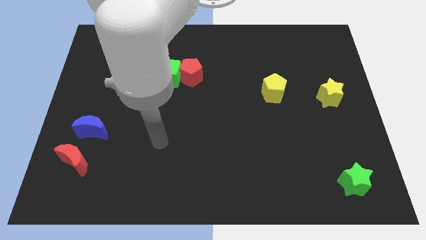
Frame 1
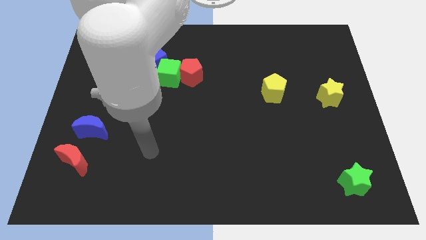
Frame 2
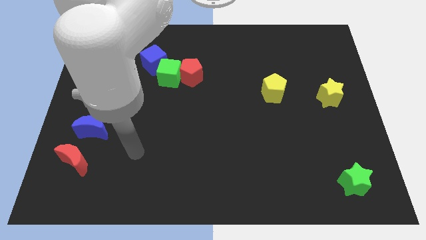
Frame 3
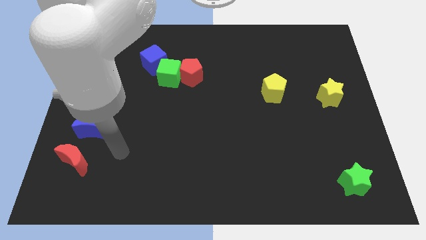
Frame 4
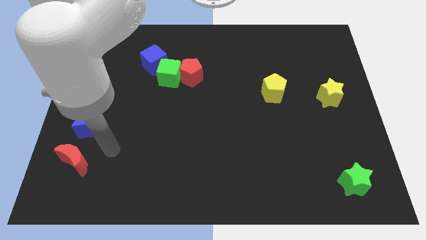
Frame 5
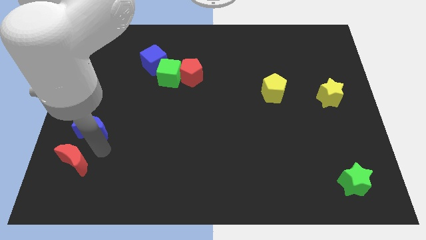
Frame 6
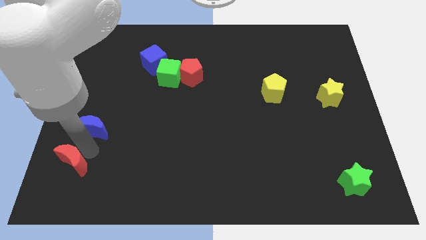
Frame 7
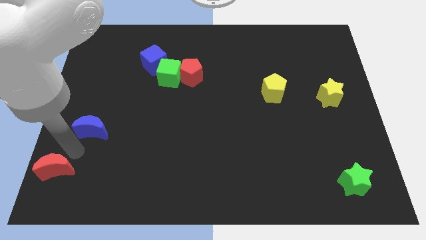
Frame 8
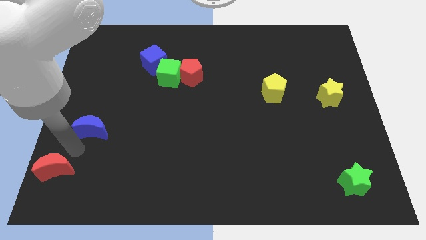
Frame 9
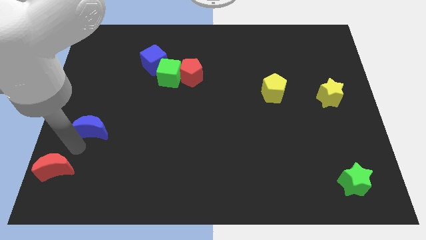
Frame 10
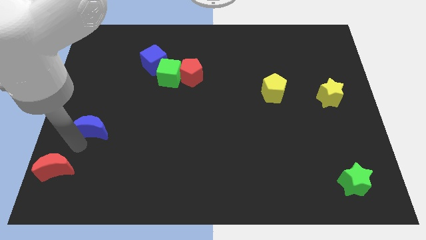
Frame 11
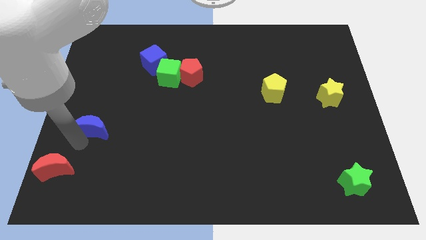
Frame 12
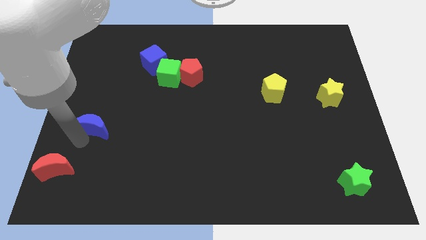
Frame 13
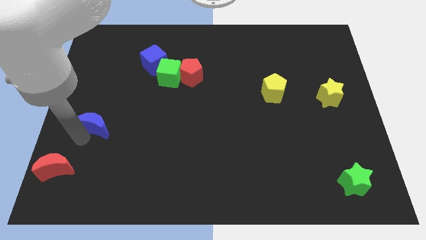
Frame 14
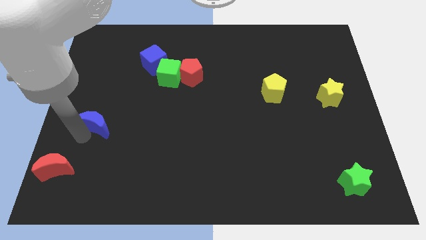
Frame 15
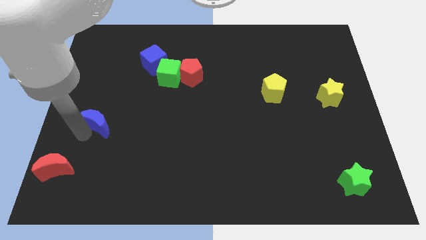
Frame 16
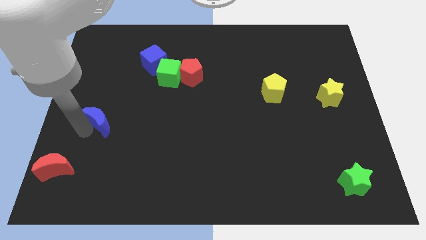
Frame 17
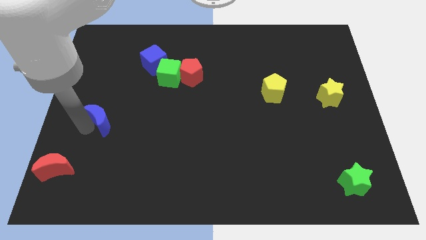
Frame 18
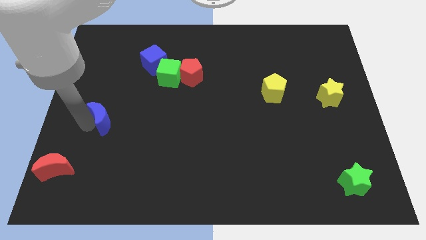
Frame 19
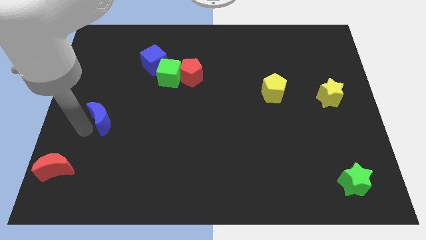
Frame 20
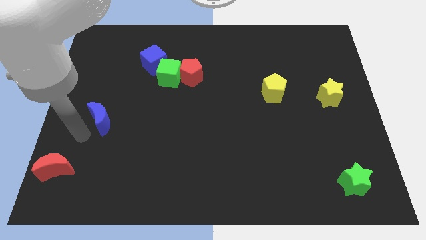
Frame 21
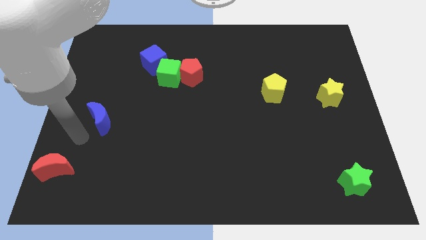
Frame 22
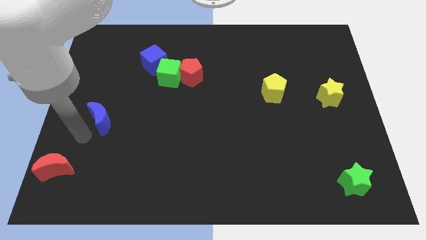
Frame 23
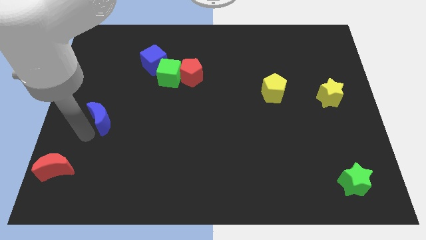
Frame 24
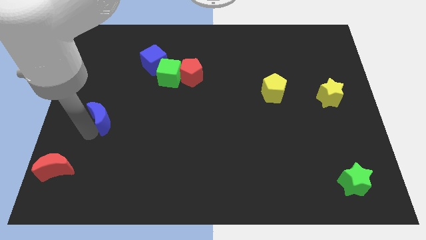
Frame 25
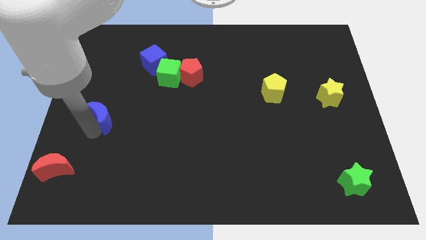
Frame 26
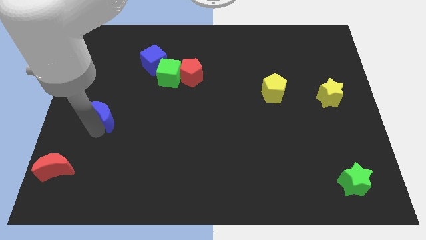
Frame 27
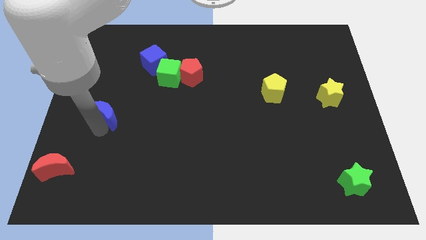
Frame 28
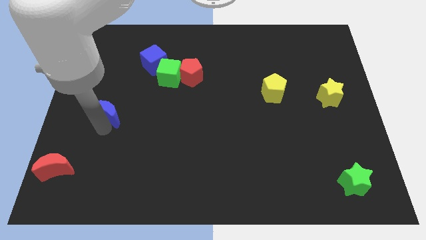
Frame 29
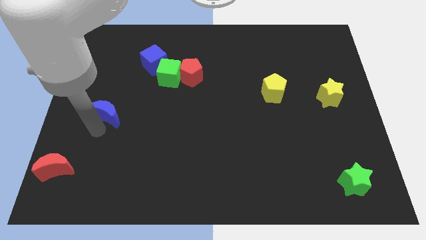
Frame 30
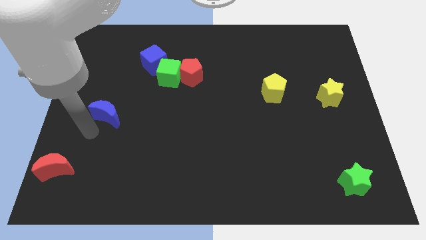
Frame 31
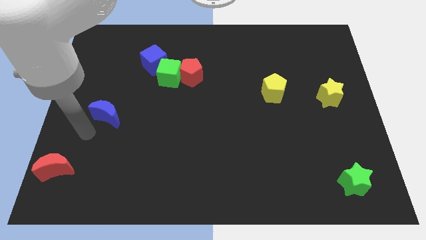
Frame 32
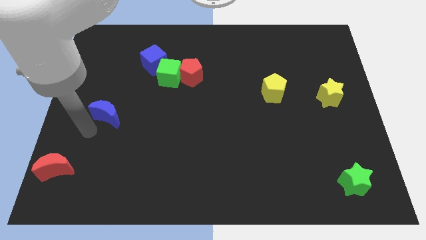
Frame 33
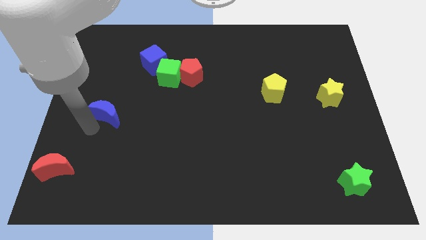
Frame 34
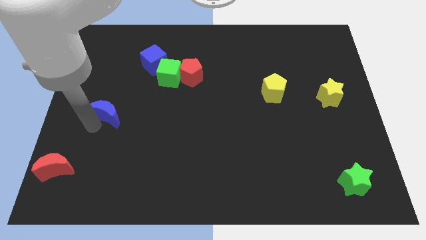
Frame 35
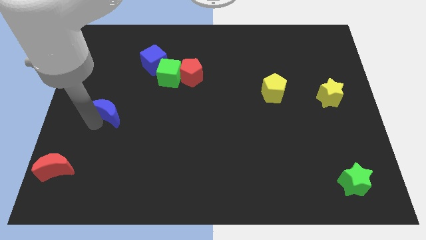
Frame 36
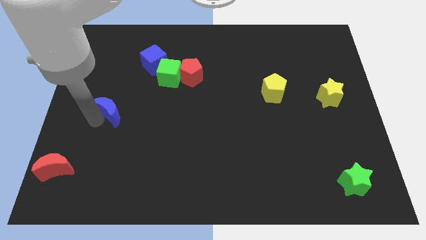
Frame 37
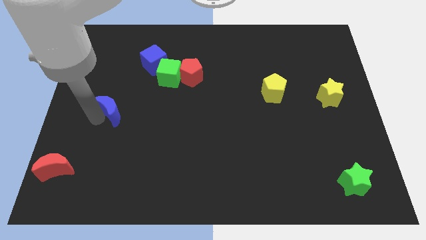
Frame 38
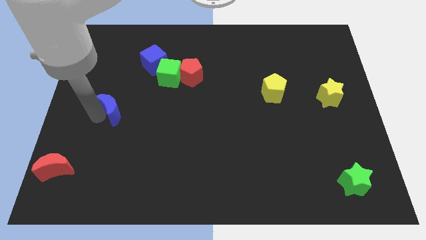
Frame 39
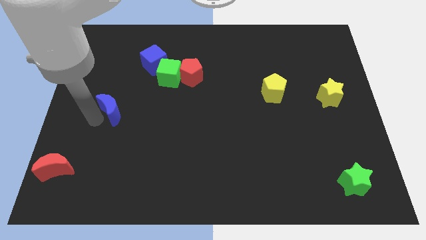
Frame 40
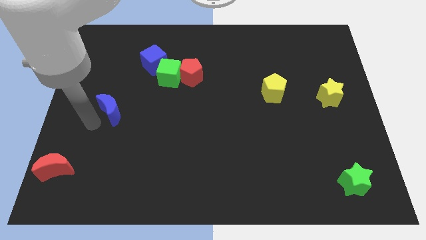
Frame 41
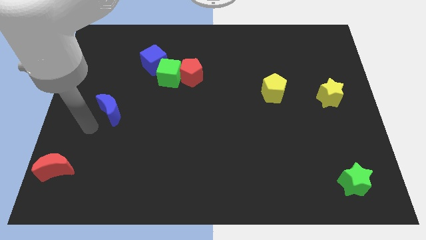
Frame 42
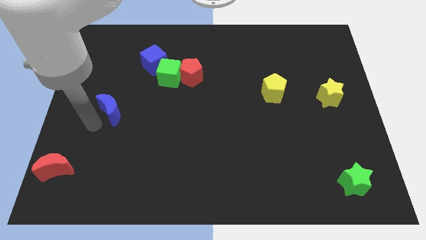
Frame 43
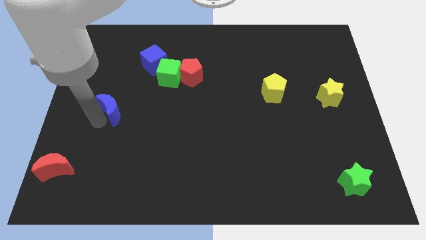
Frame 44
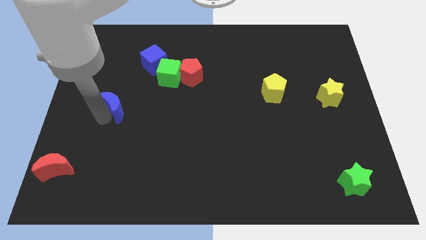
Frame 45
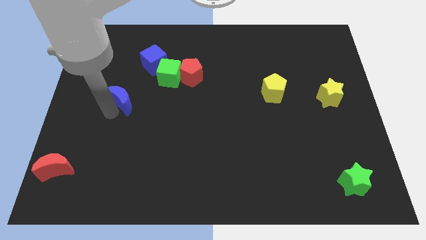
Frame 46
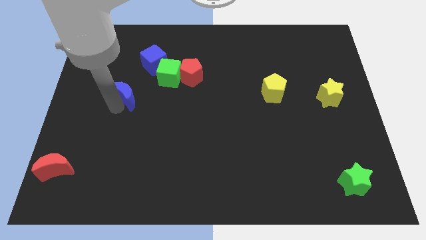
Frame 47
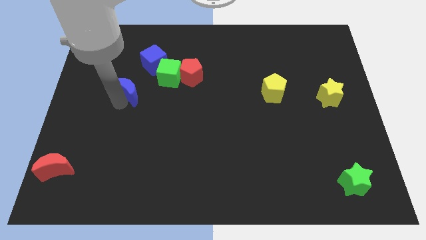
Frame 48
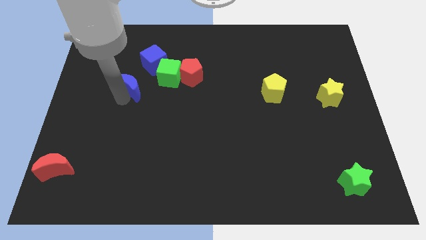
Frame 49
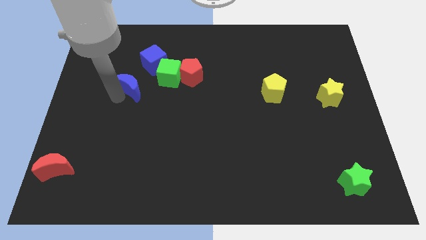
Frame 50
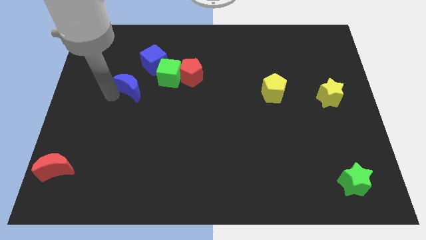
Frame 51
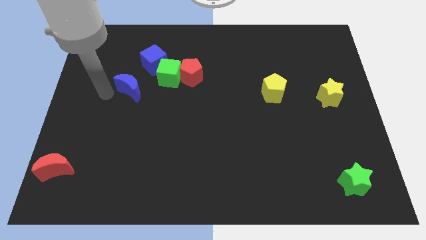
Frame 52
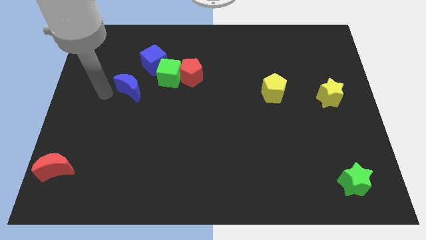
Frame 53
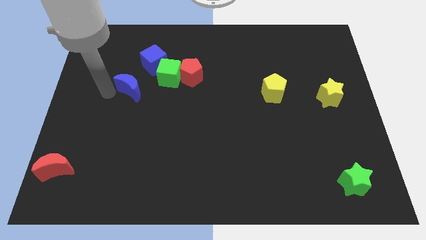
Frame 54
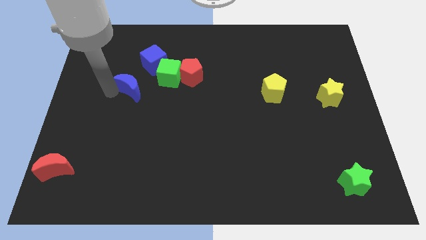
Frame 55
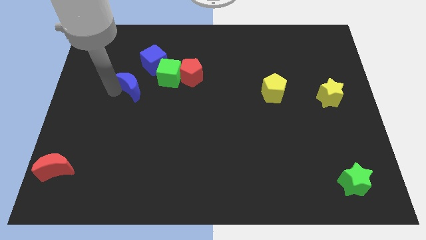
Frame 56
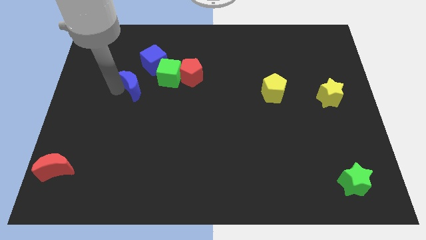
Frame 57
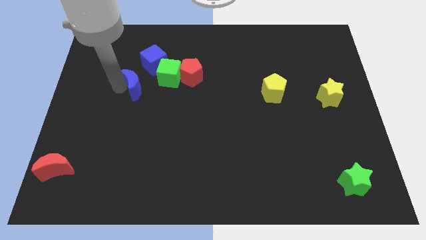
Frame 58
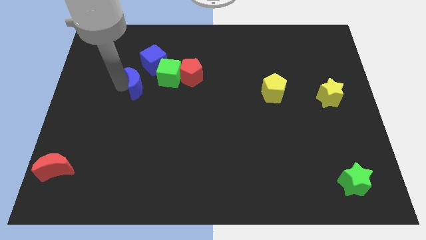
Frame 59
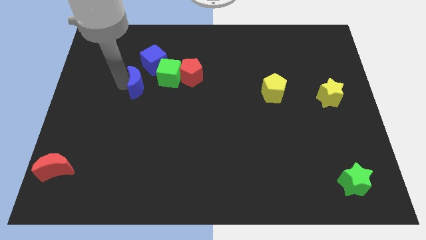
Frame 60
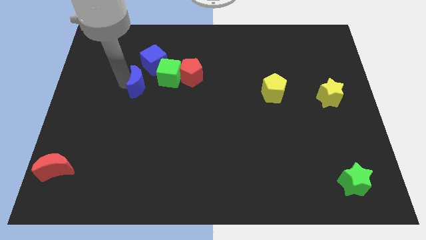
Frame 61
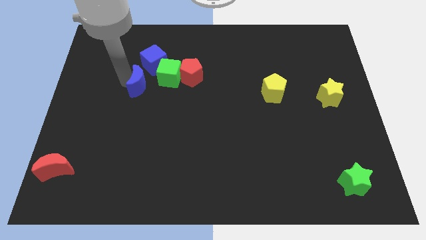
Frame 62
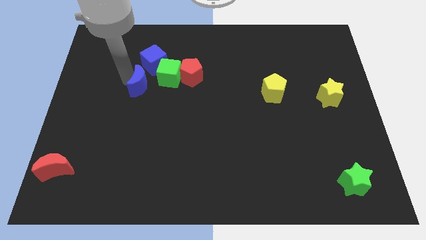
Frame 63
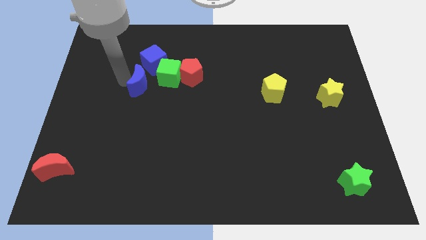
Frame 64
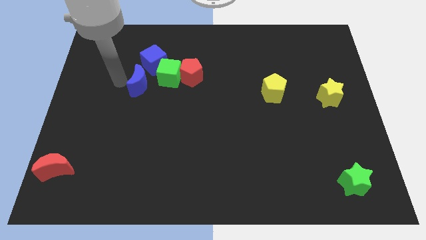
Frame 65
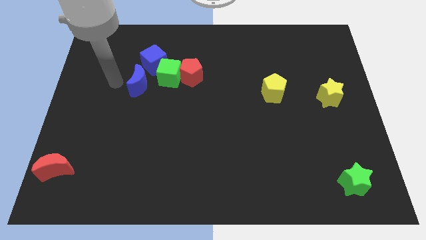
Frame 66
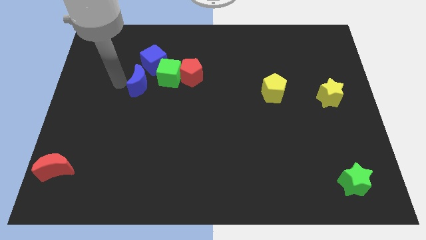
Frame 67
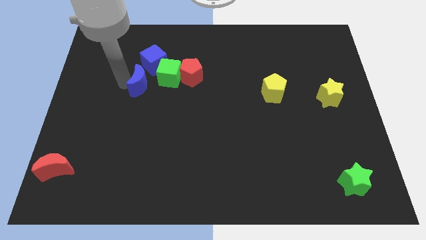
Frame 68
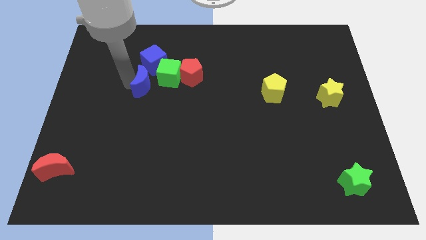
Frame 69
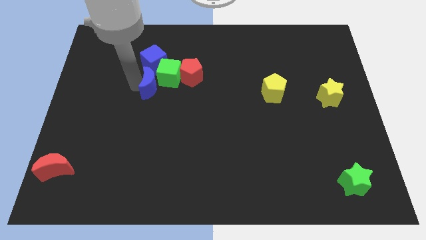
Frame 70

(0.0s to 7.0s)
put the blue moon to the green cube
